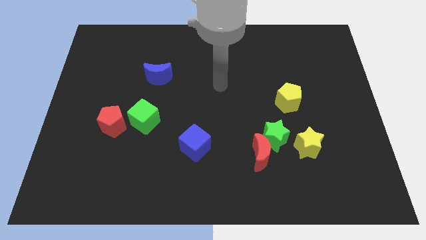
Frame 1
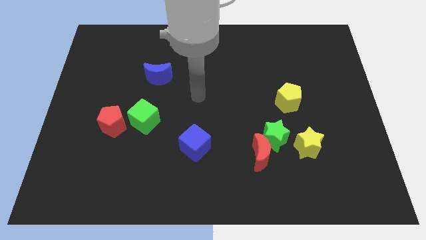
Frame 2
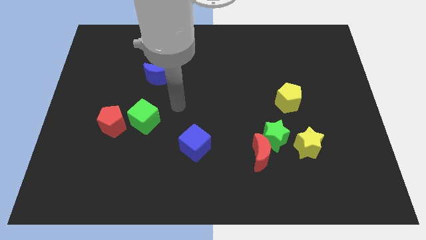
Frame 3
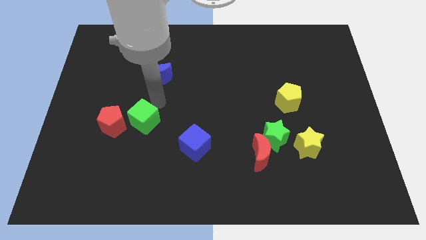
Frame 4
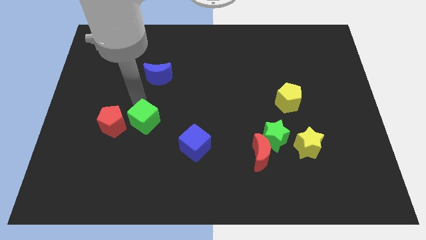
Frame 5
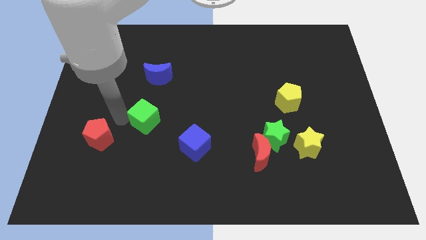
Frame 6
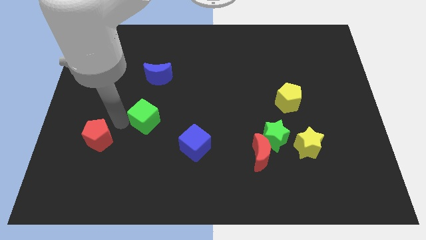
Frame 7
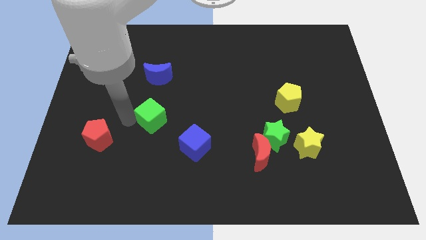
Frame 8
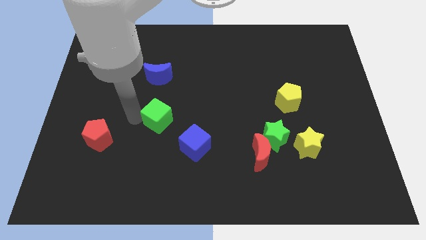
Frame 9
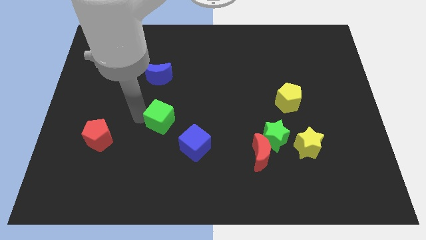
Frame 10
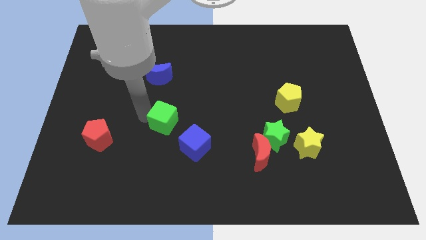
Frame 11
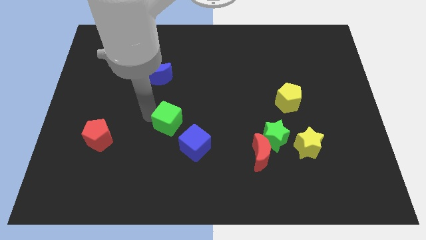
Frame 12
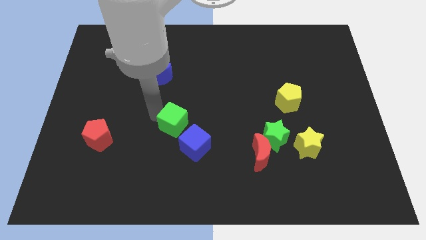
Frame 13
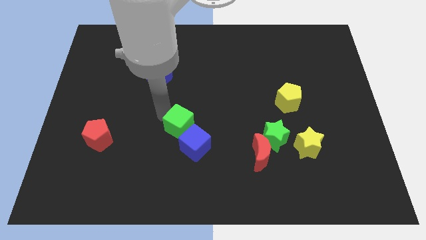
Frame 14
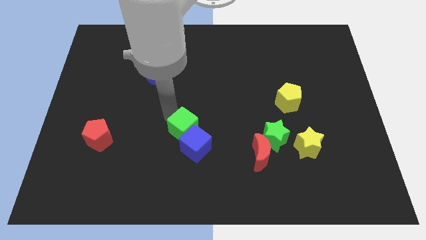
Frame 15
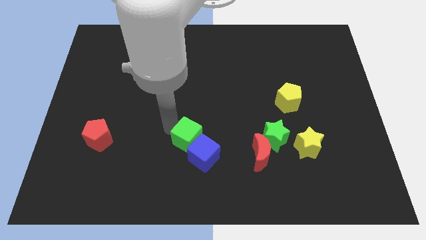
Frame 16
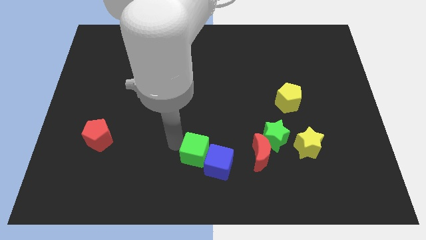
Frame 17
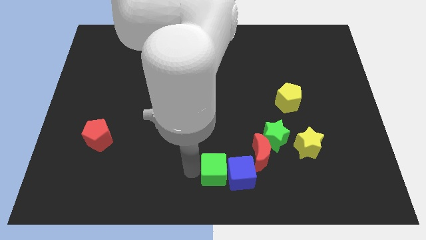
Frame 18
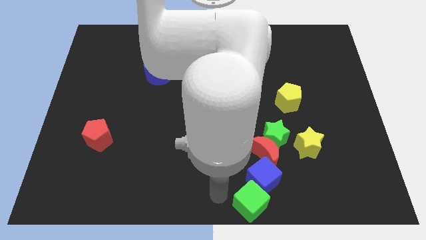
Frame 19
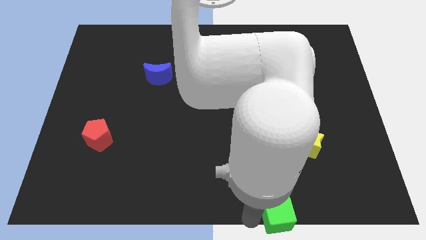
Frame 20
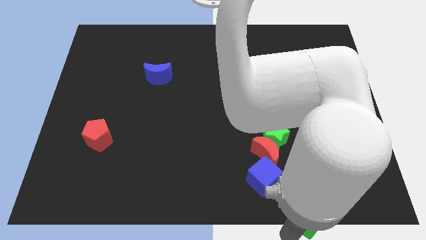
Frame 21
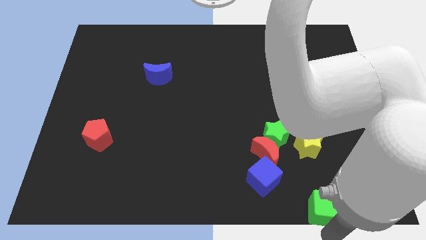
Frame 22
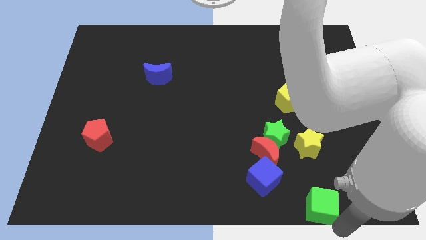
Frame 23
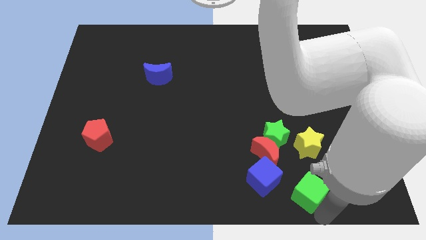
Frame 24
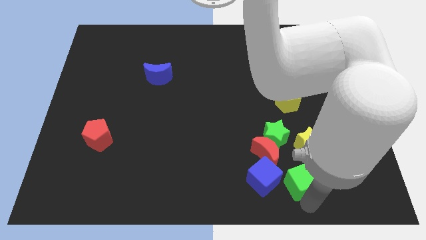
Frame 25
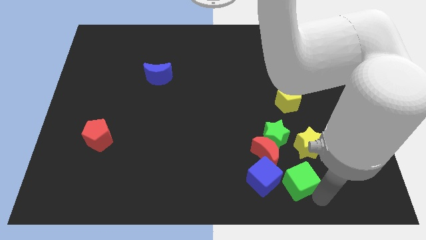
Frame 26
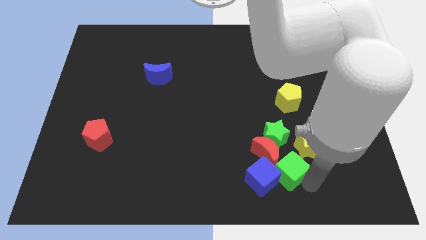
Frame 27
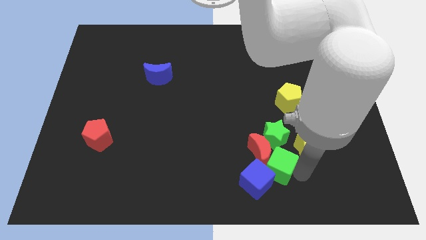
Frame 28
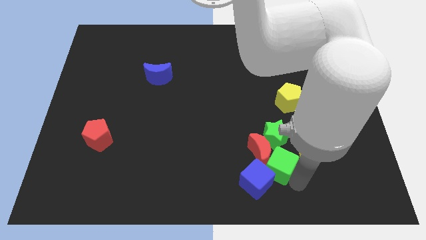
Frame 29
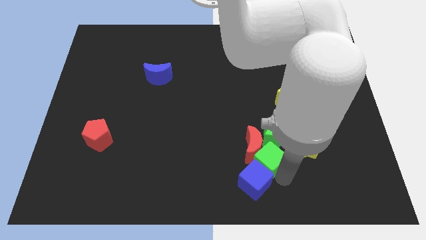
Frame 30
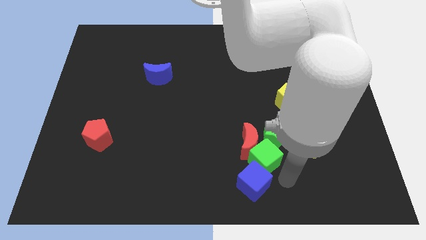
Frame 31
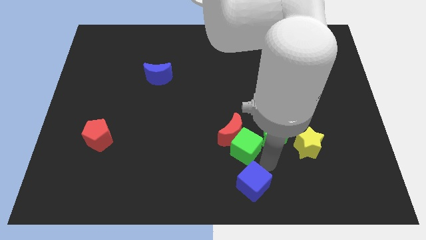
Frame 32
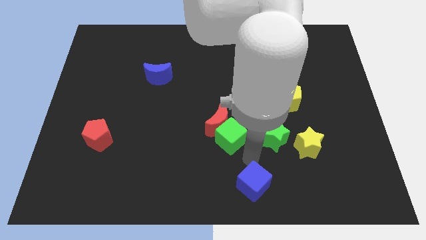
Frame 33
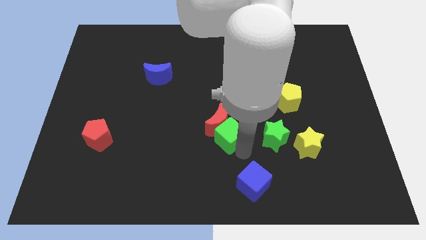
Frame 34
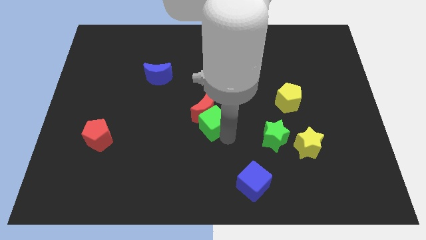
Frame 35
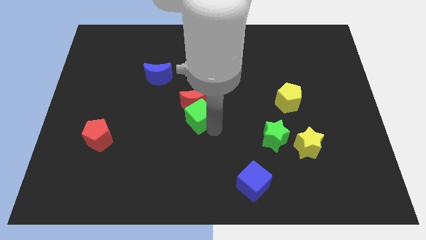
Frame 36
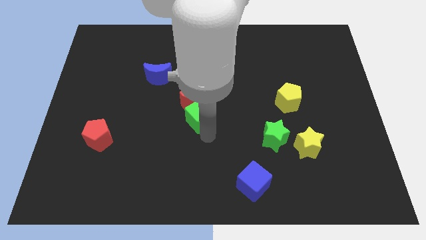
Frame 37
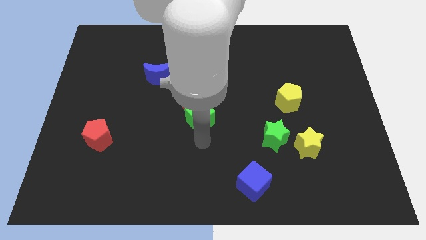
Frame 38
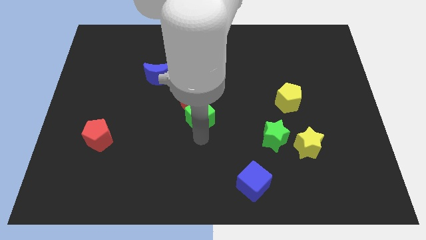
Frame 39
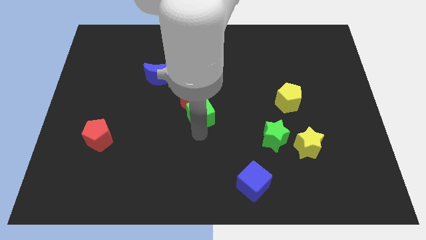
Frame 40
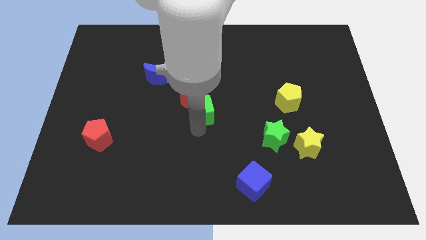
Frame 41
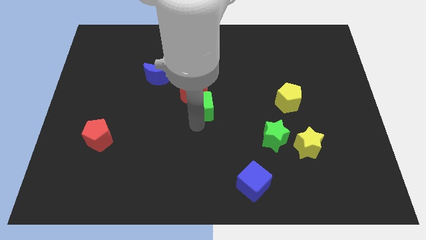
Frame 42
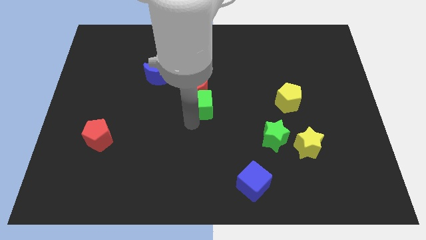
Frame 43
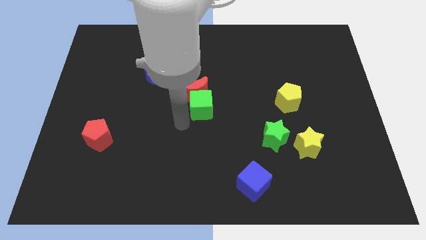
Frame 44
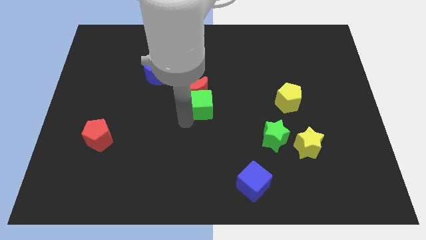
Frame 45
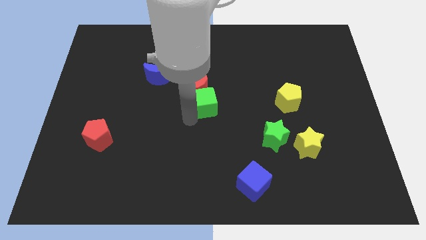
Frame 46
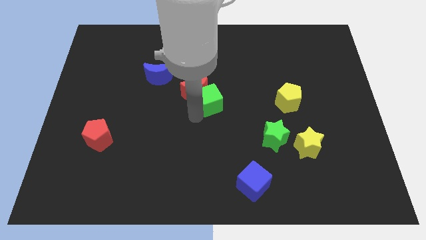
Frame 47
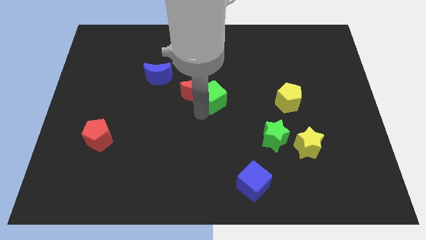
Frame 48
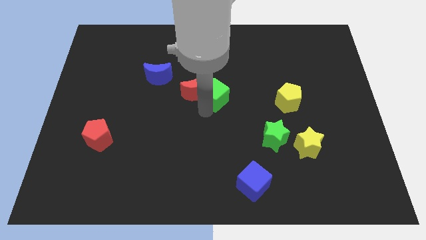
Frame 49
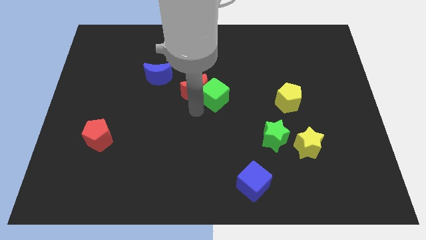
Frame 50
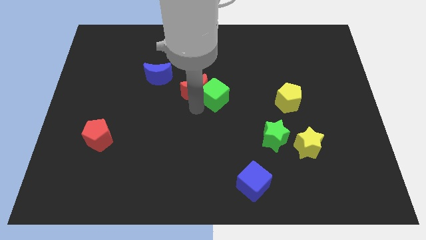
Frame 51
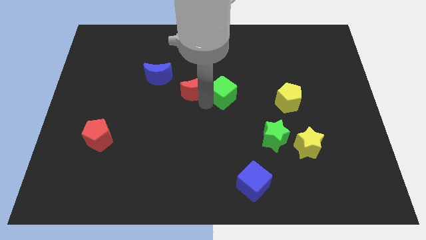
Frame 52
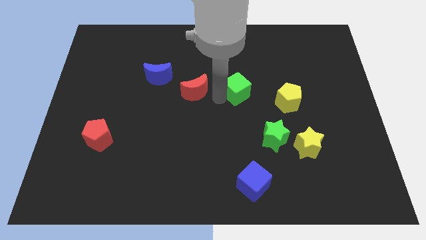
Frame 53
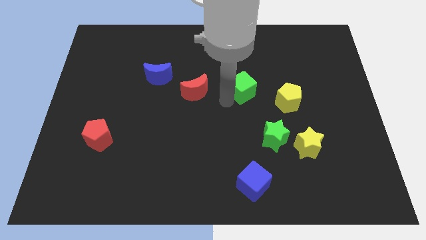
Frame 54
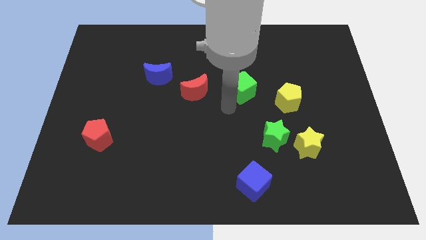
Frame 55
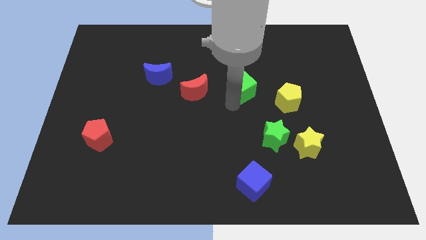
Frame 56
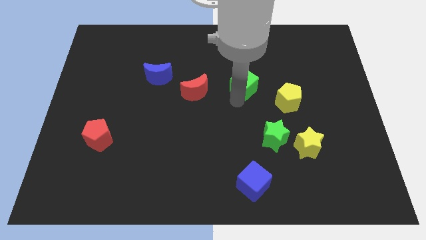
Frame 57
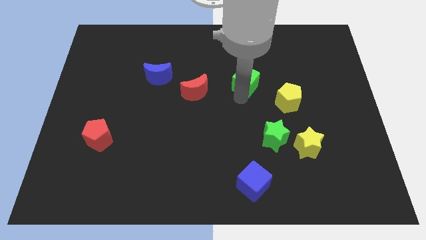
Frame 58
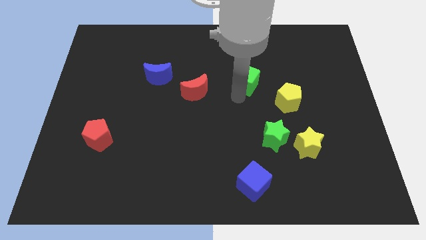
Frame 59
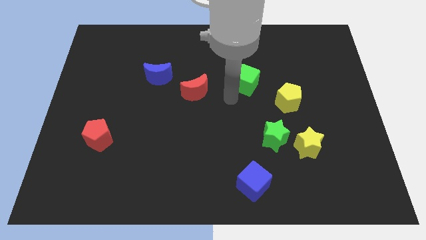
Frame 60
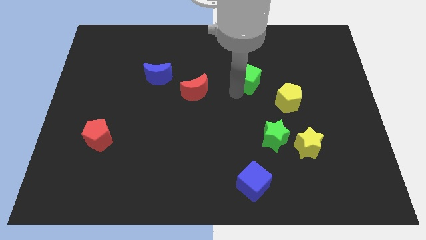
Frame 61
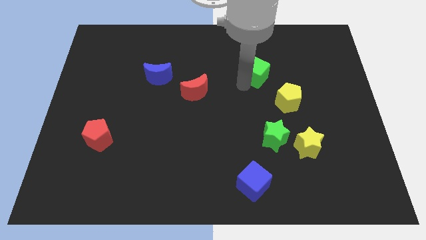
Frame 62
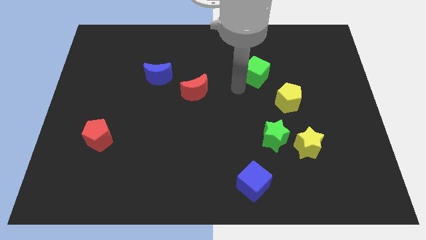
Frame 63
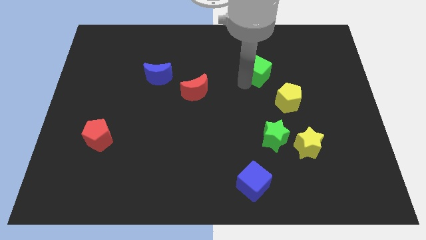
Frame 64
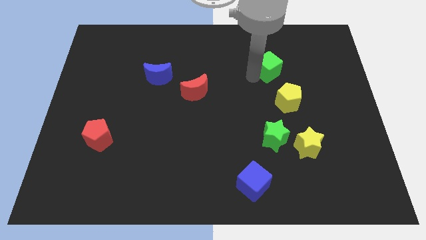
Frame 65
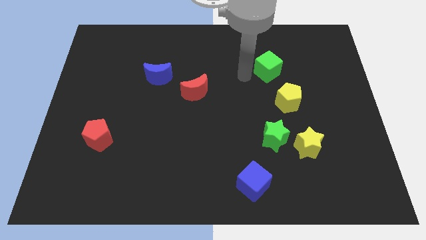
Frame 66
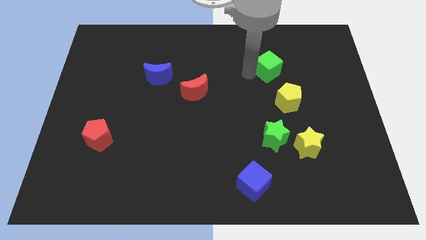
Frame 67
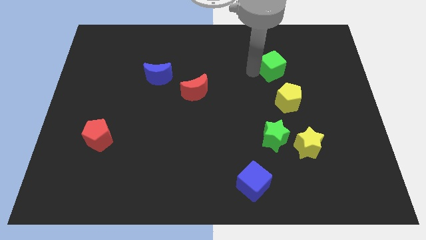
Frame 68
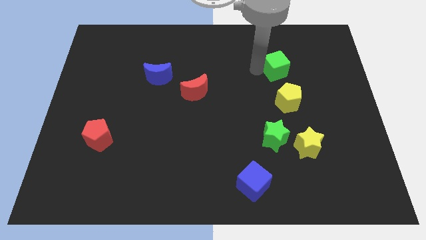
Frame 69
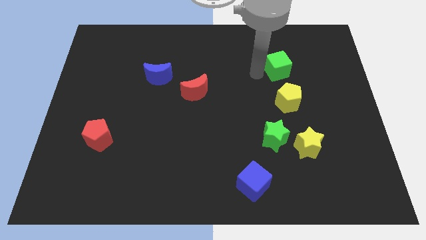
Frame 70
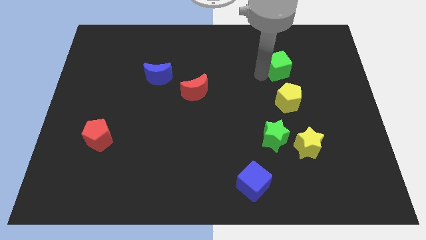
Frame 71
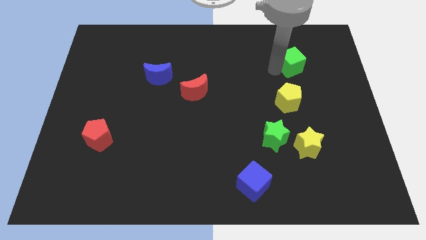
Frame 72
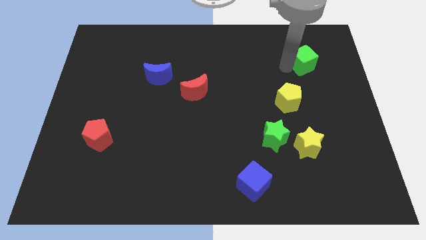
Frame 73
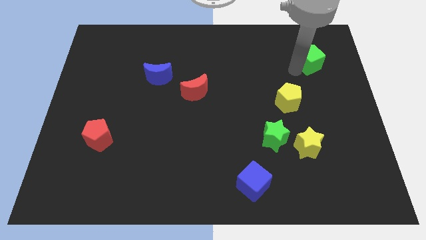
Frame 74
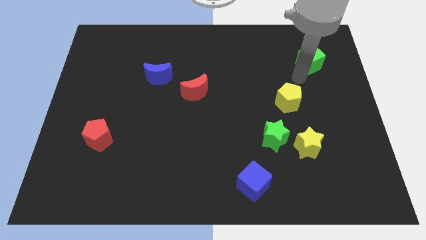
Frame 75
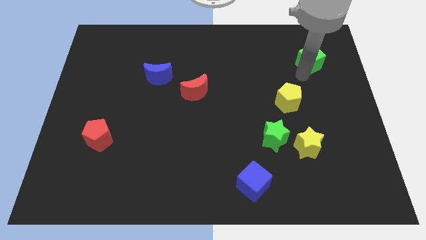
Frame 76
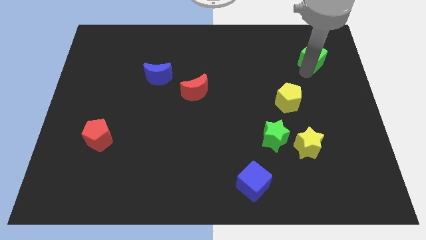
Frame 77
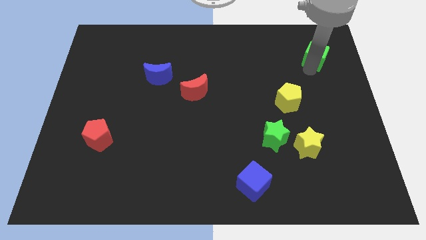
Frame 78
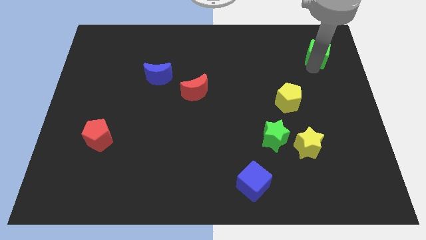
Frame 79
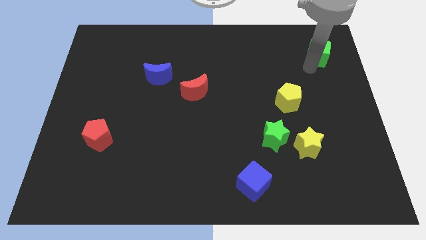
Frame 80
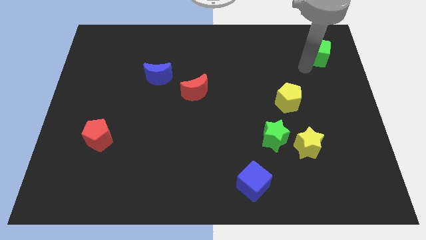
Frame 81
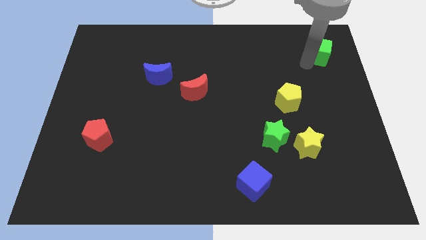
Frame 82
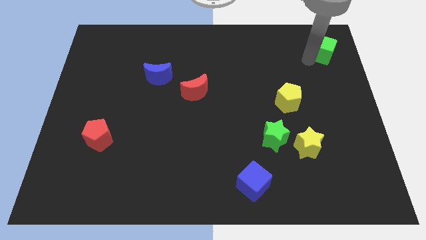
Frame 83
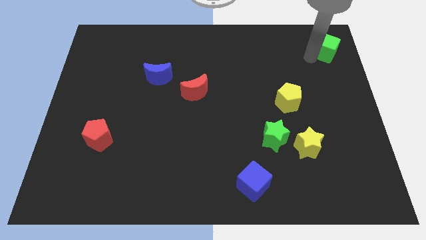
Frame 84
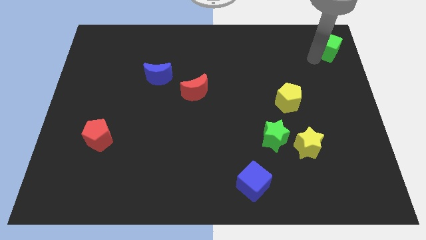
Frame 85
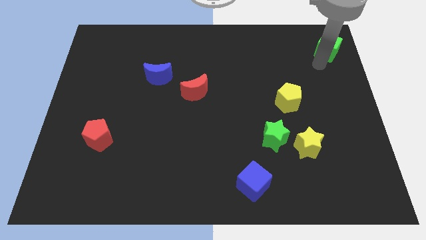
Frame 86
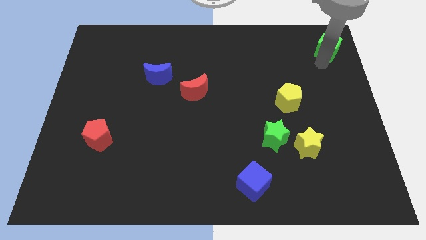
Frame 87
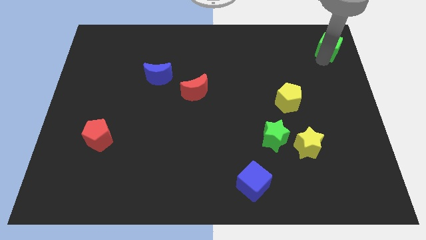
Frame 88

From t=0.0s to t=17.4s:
slide the green cube to the top right
